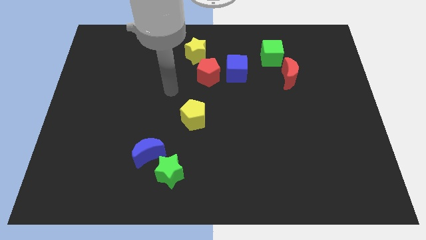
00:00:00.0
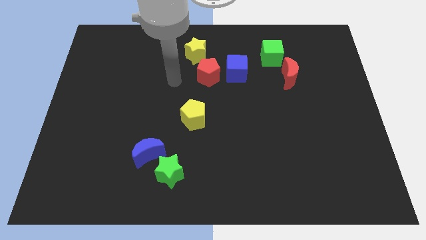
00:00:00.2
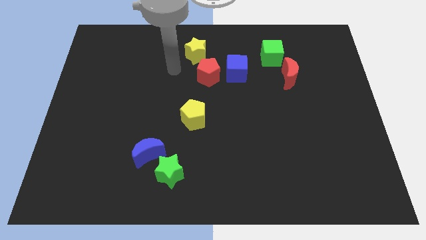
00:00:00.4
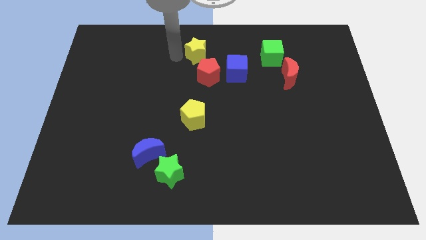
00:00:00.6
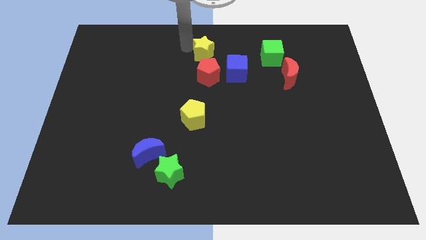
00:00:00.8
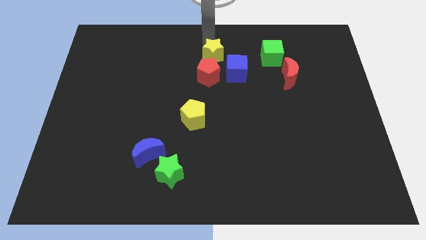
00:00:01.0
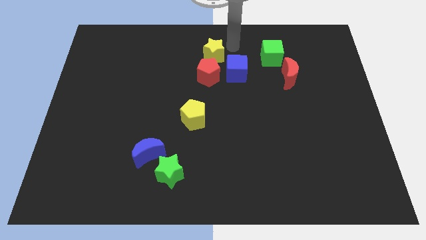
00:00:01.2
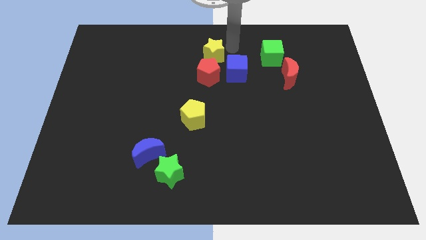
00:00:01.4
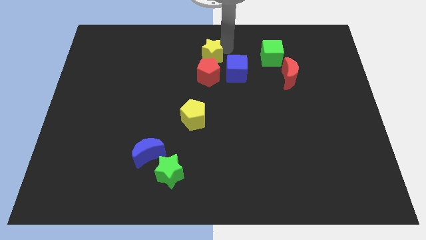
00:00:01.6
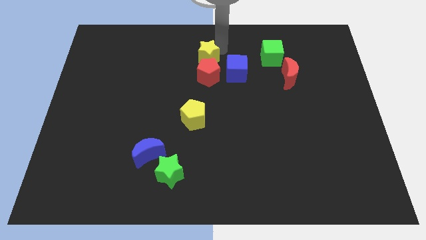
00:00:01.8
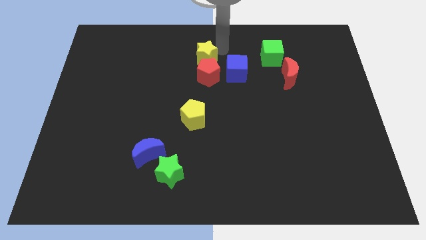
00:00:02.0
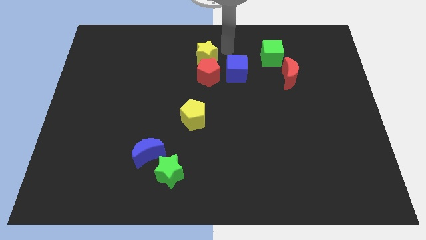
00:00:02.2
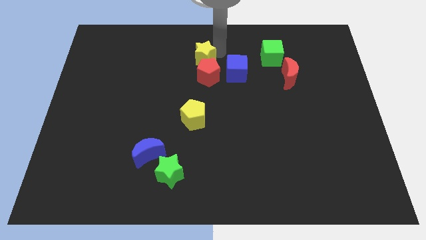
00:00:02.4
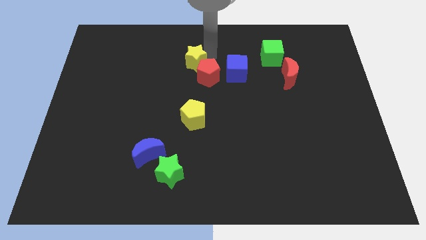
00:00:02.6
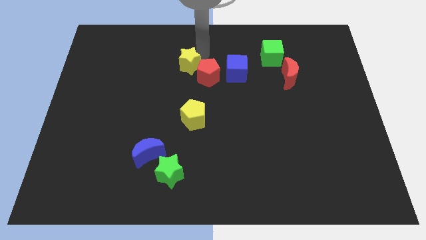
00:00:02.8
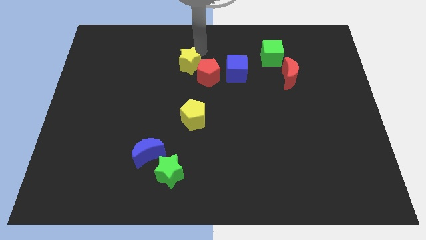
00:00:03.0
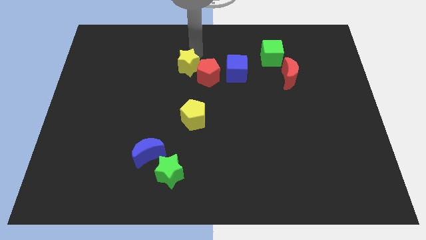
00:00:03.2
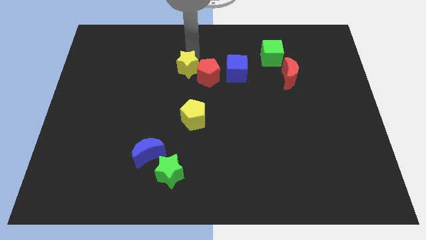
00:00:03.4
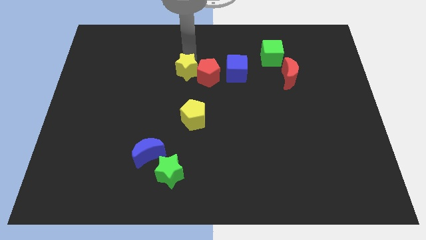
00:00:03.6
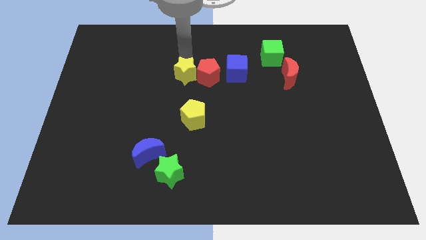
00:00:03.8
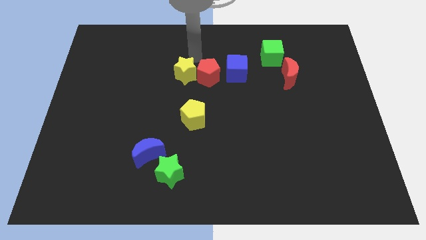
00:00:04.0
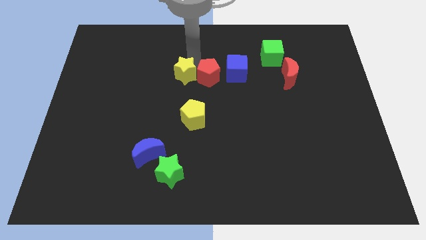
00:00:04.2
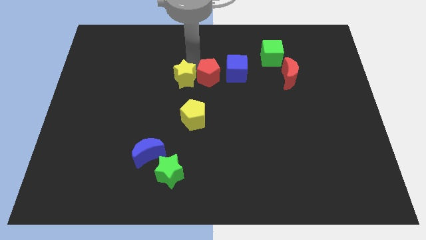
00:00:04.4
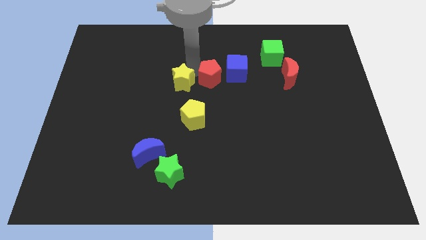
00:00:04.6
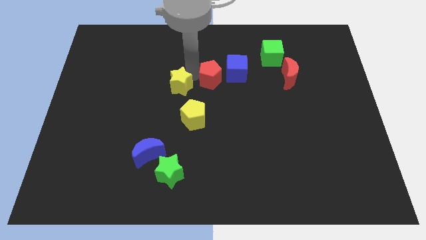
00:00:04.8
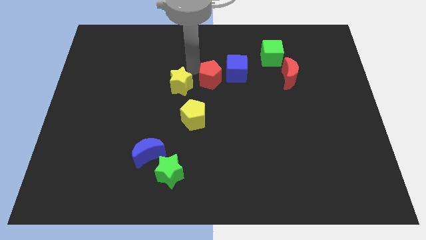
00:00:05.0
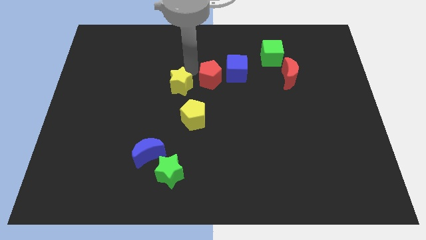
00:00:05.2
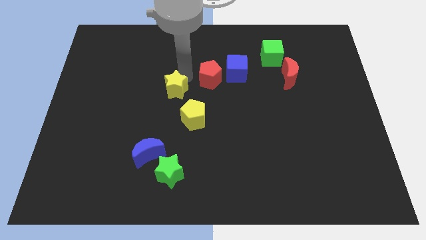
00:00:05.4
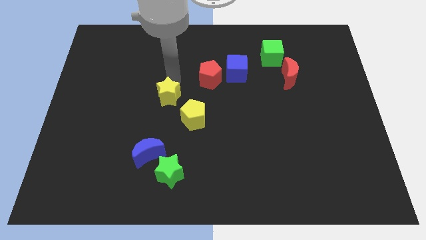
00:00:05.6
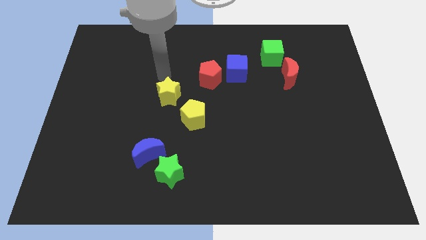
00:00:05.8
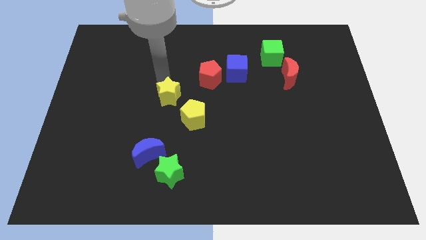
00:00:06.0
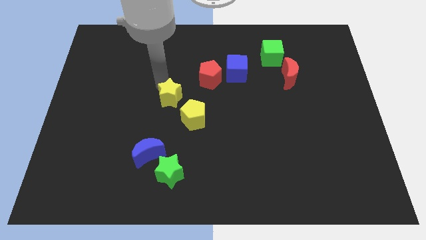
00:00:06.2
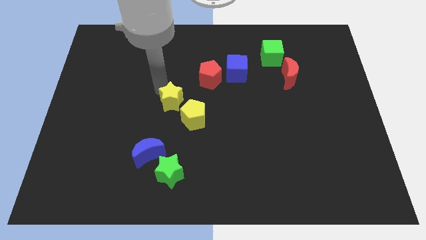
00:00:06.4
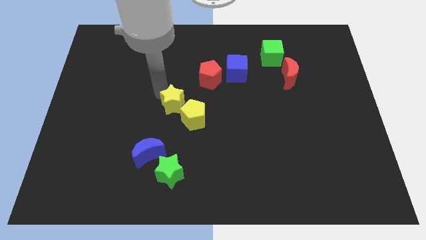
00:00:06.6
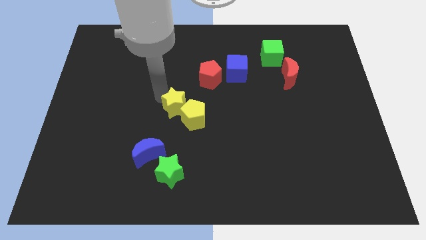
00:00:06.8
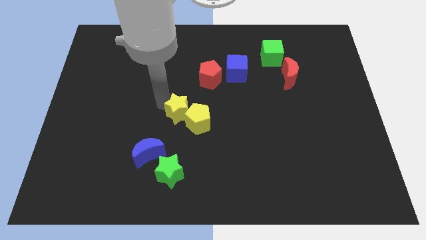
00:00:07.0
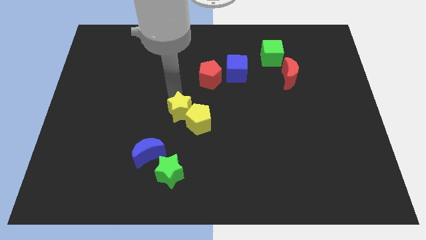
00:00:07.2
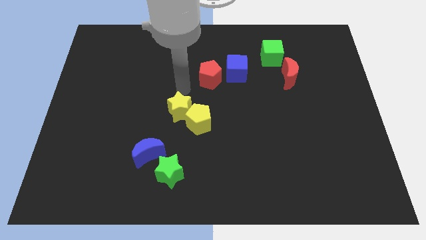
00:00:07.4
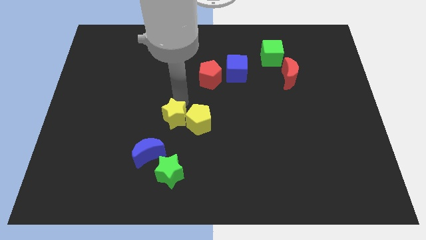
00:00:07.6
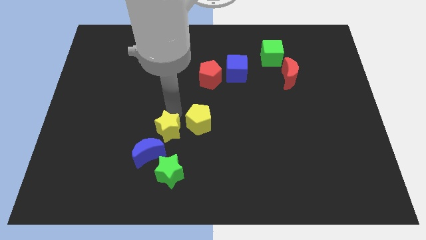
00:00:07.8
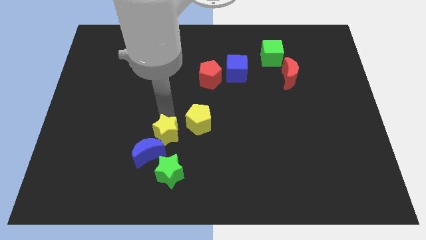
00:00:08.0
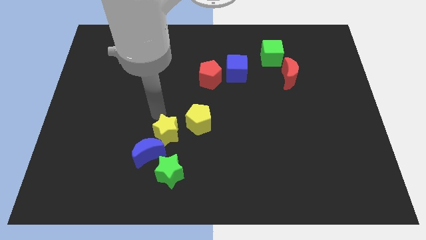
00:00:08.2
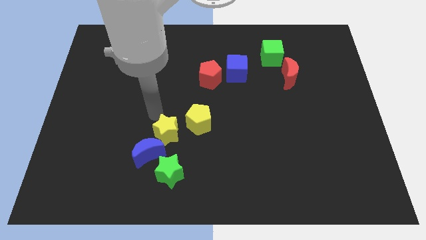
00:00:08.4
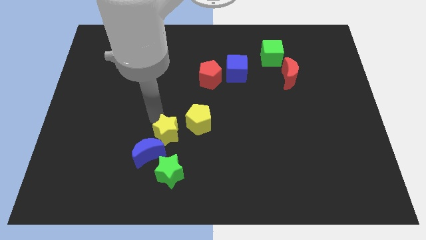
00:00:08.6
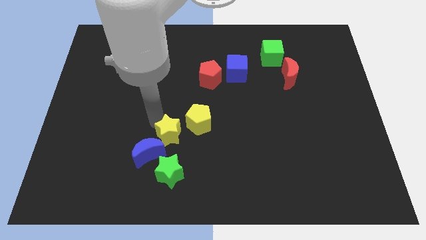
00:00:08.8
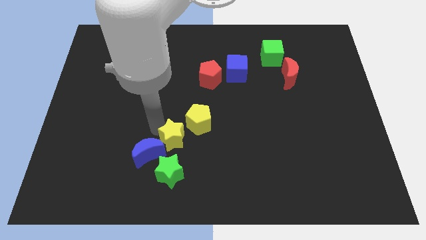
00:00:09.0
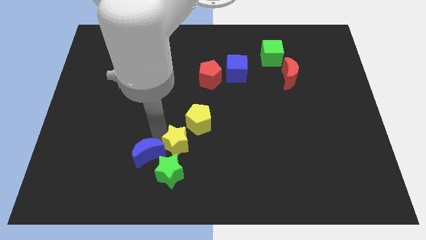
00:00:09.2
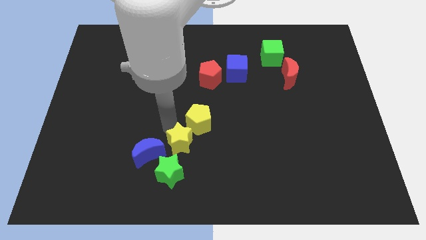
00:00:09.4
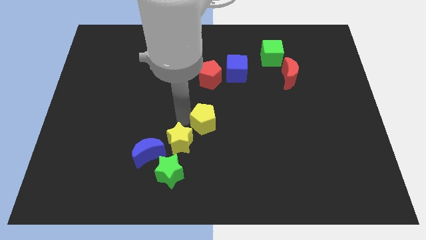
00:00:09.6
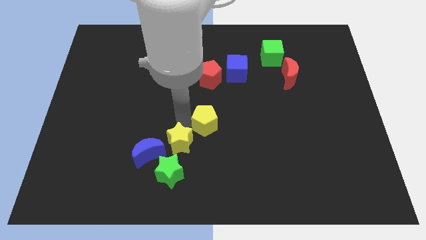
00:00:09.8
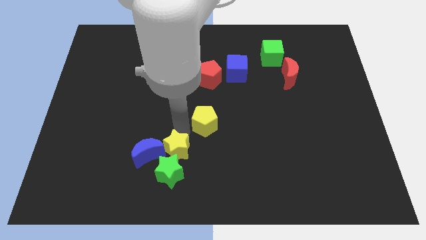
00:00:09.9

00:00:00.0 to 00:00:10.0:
move the yellow star next to the green star

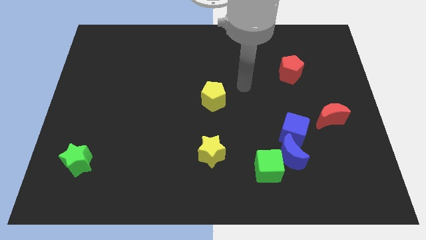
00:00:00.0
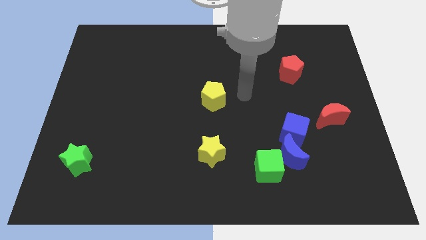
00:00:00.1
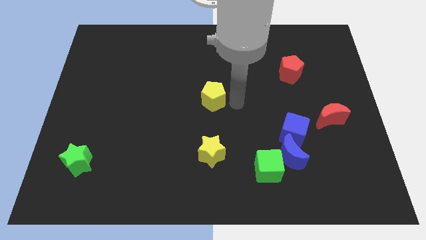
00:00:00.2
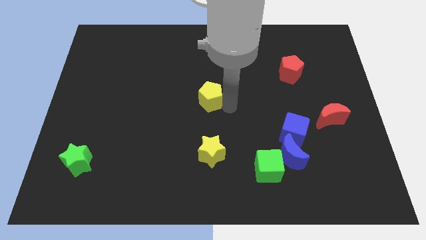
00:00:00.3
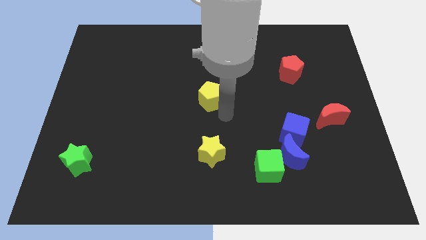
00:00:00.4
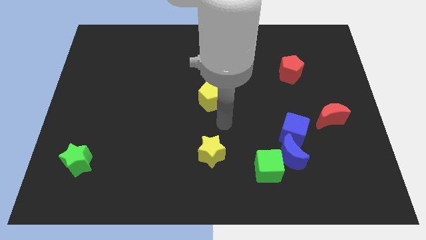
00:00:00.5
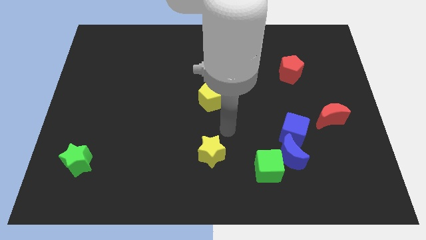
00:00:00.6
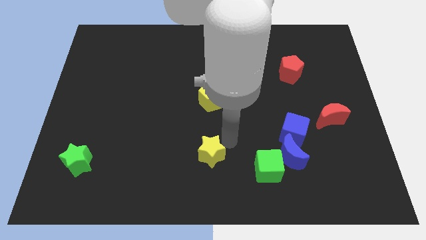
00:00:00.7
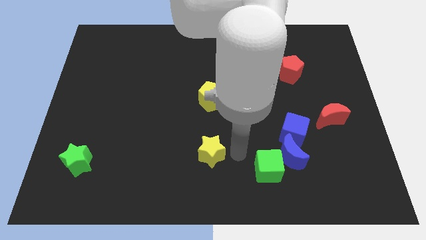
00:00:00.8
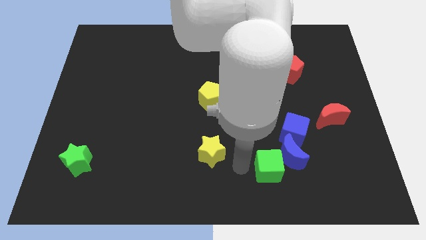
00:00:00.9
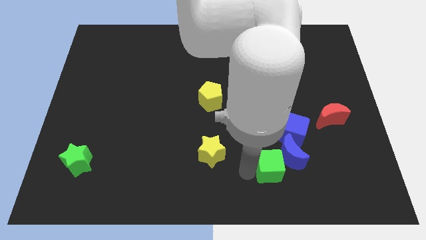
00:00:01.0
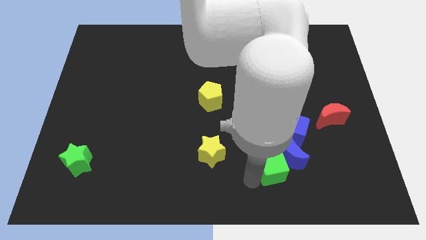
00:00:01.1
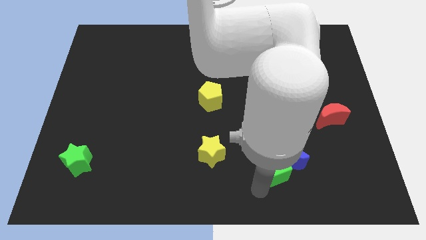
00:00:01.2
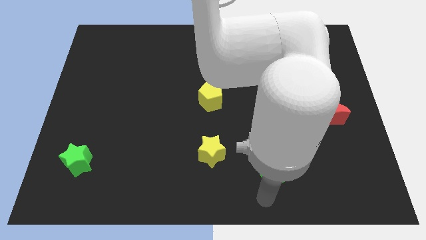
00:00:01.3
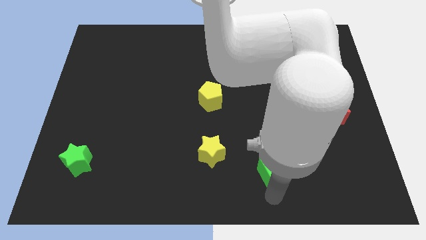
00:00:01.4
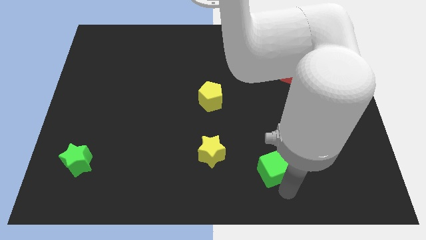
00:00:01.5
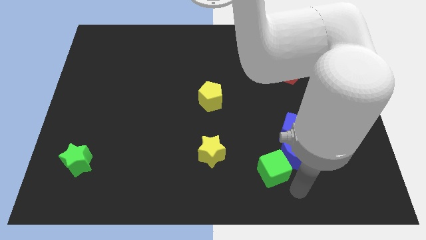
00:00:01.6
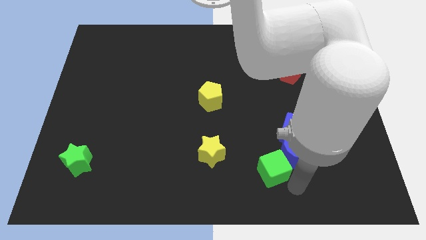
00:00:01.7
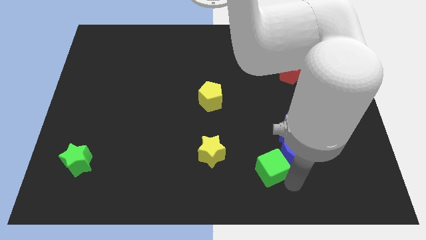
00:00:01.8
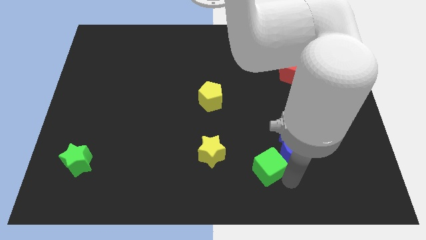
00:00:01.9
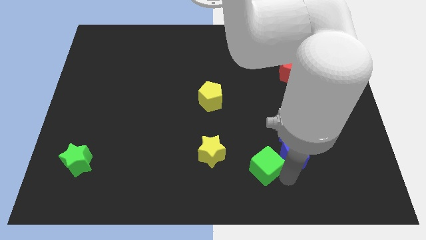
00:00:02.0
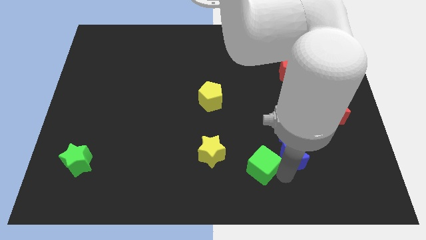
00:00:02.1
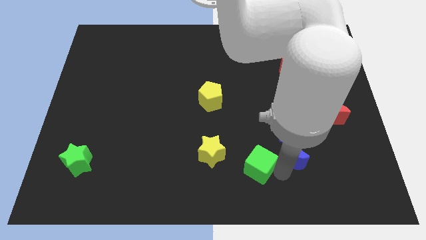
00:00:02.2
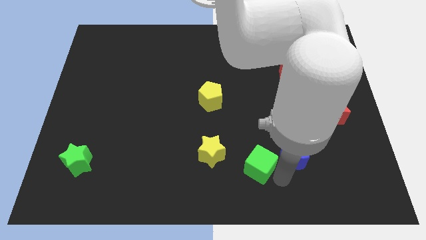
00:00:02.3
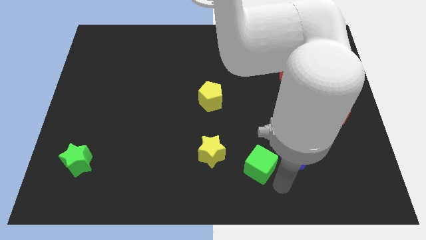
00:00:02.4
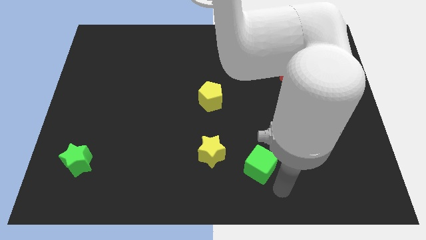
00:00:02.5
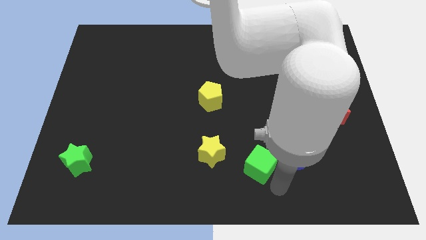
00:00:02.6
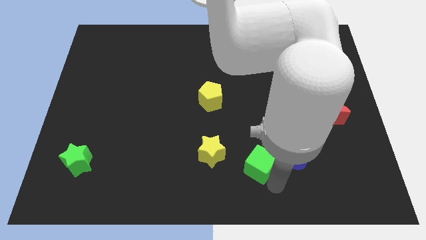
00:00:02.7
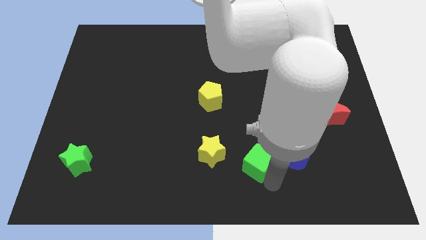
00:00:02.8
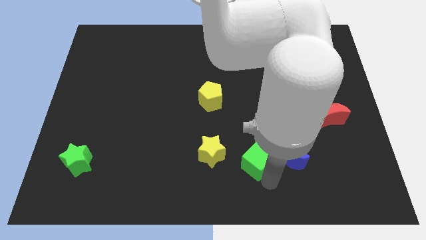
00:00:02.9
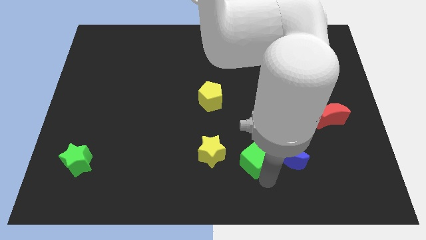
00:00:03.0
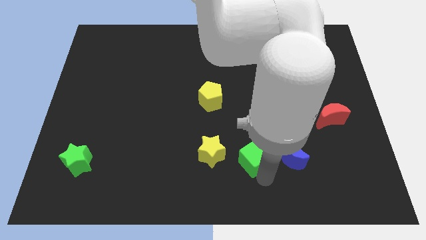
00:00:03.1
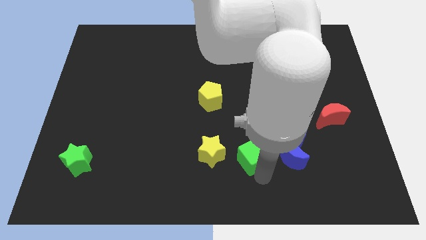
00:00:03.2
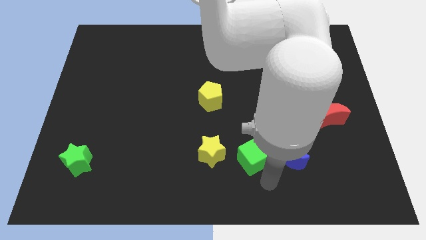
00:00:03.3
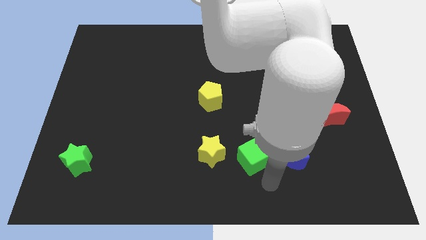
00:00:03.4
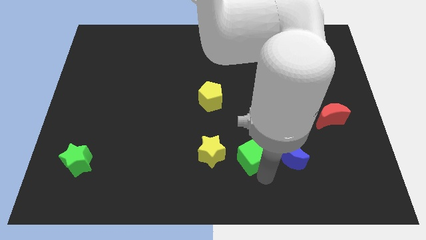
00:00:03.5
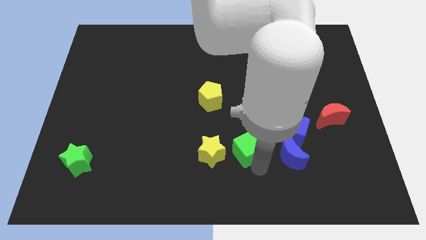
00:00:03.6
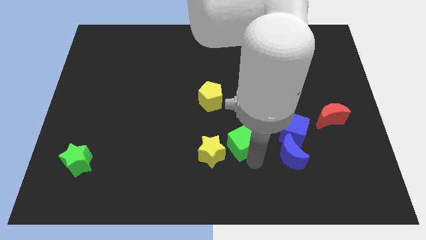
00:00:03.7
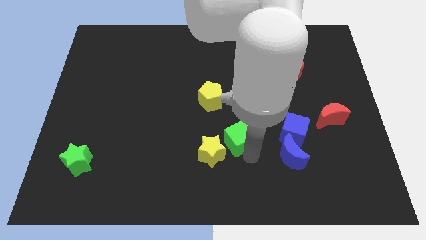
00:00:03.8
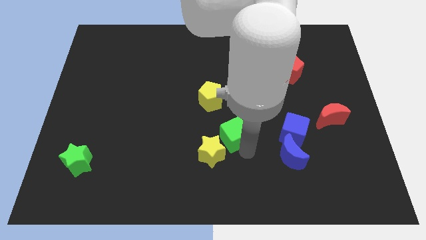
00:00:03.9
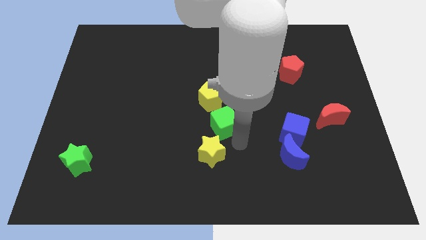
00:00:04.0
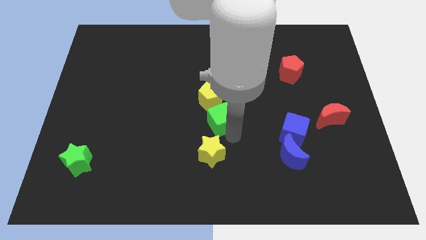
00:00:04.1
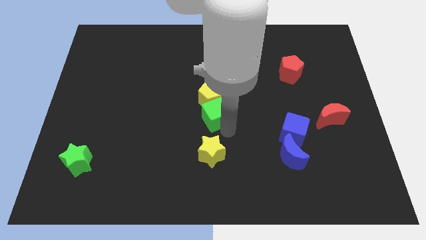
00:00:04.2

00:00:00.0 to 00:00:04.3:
push the green cube towards the yellow pentagon
